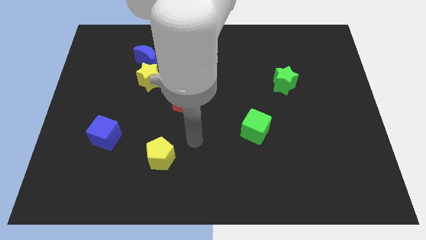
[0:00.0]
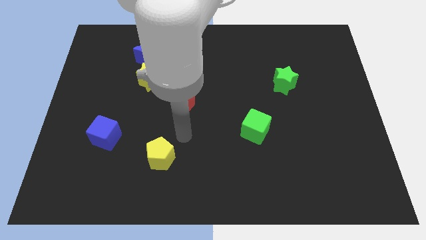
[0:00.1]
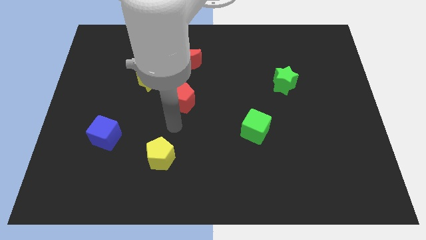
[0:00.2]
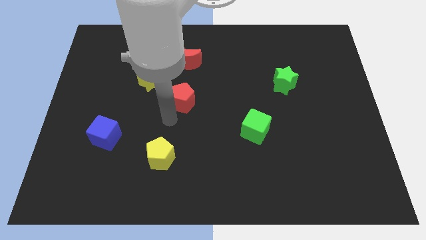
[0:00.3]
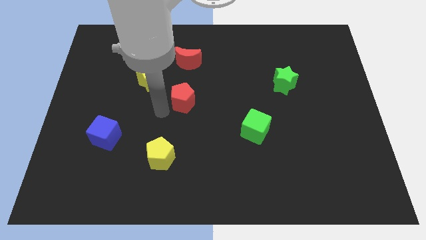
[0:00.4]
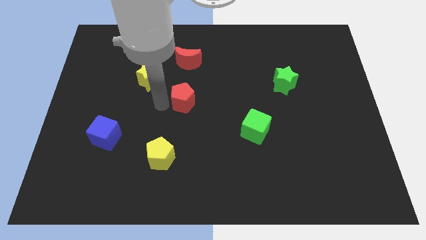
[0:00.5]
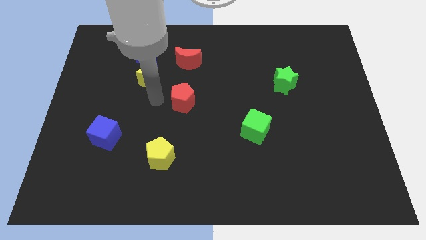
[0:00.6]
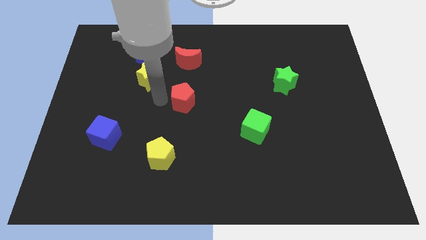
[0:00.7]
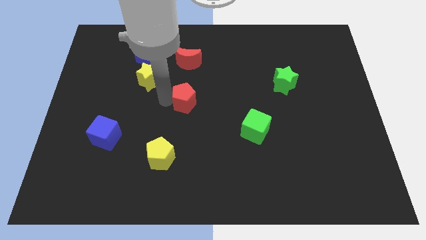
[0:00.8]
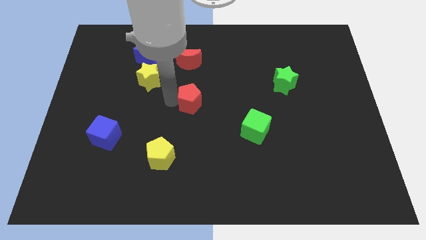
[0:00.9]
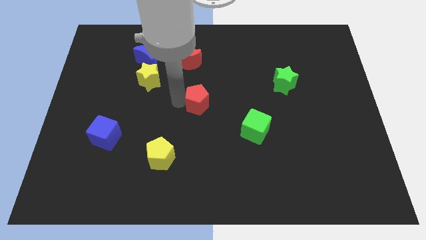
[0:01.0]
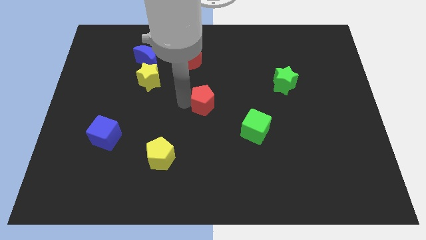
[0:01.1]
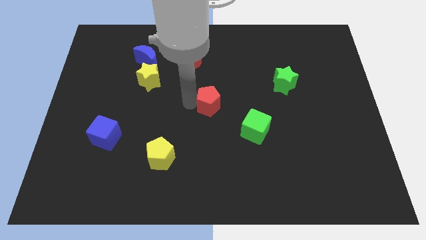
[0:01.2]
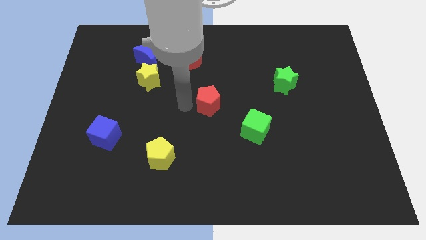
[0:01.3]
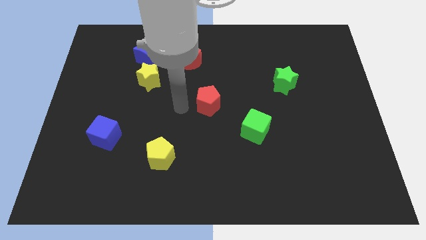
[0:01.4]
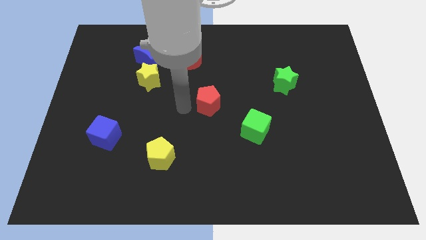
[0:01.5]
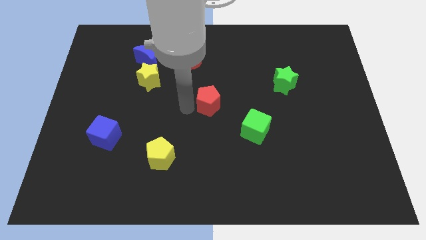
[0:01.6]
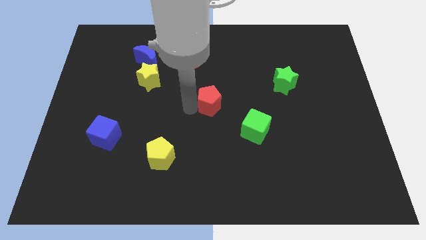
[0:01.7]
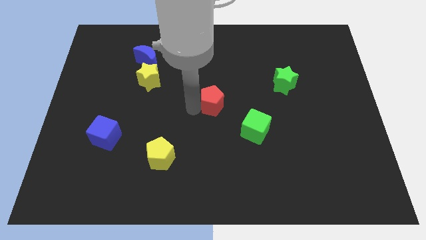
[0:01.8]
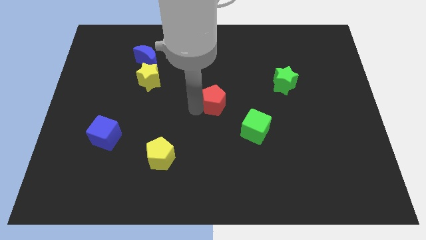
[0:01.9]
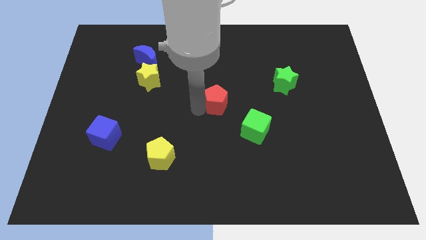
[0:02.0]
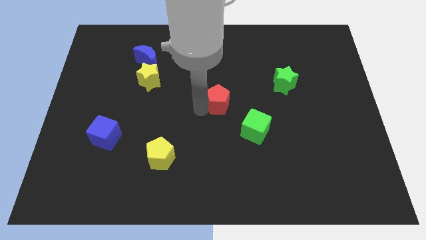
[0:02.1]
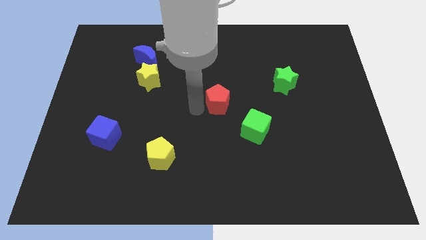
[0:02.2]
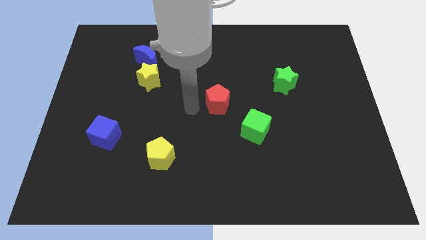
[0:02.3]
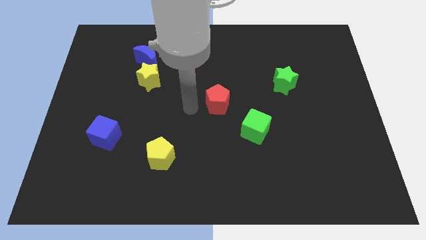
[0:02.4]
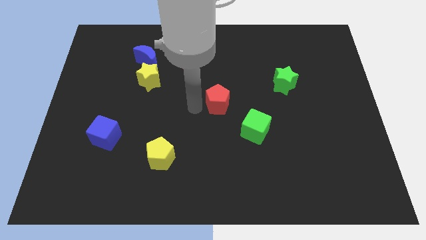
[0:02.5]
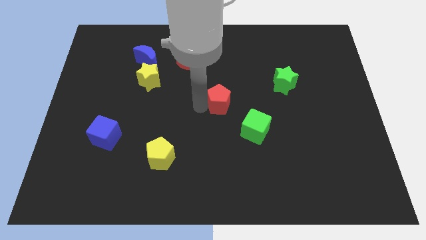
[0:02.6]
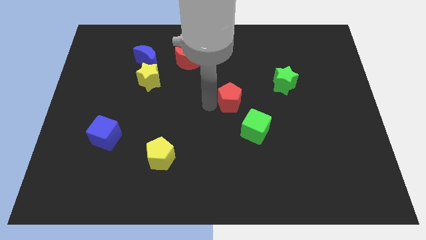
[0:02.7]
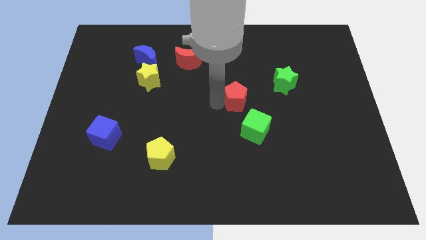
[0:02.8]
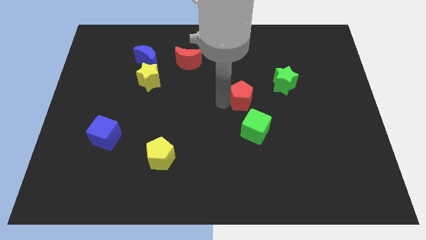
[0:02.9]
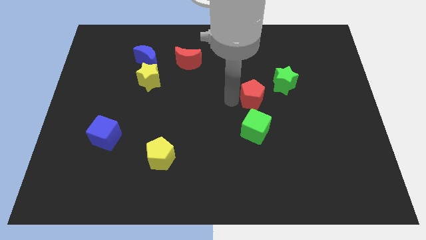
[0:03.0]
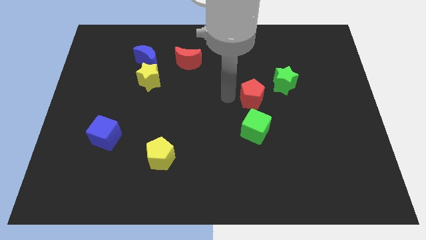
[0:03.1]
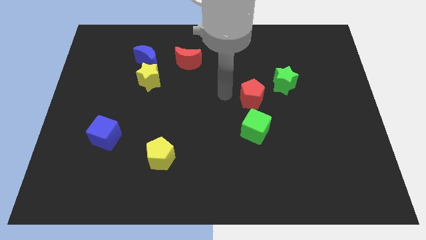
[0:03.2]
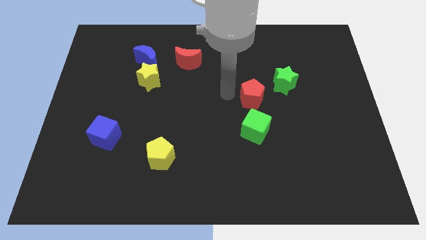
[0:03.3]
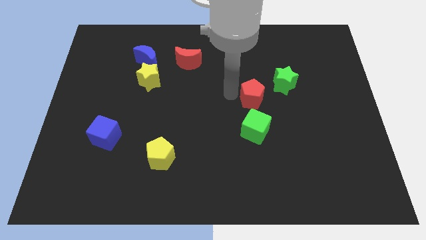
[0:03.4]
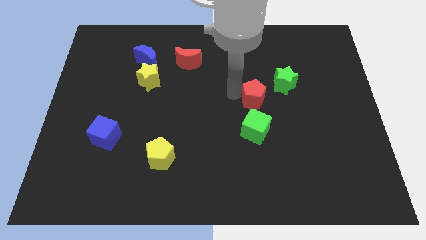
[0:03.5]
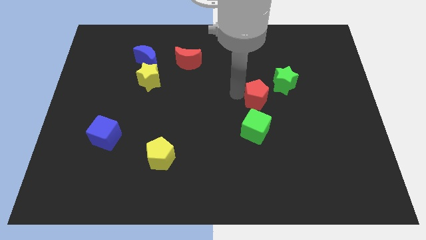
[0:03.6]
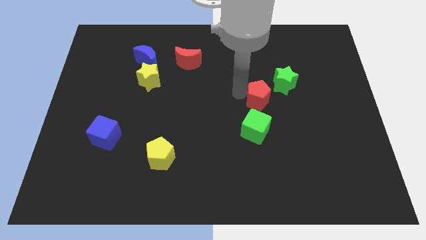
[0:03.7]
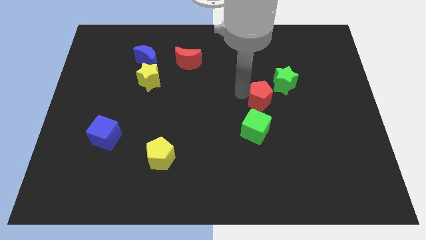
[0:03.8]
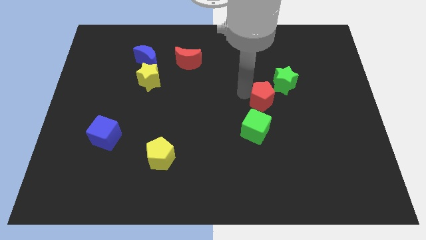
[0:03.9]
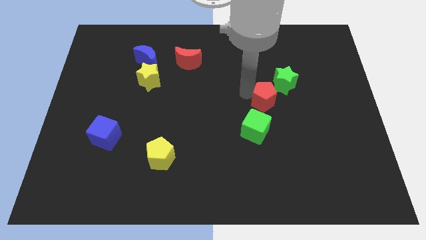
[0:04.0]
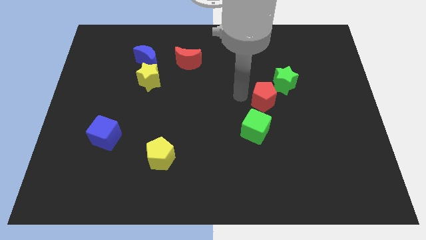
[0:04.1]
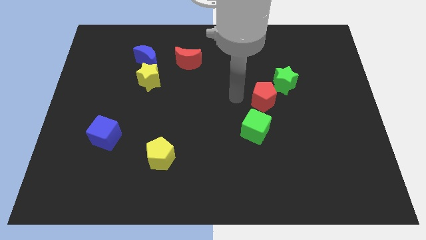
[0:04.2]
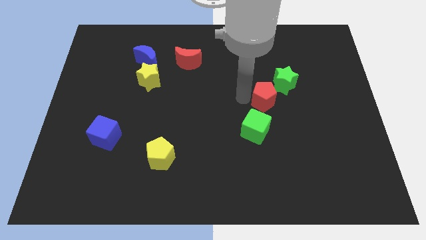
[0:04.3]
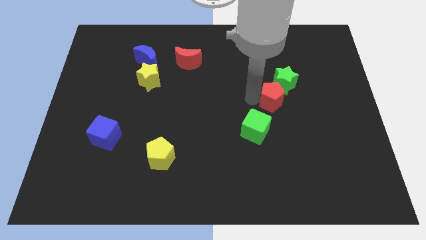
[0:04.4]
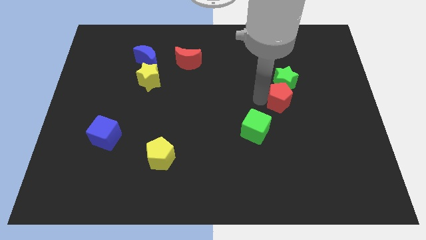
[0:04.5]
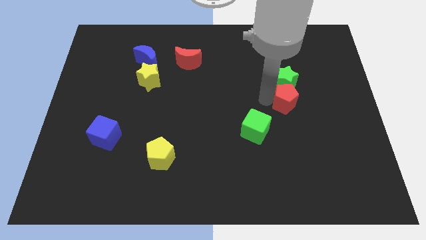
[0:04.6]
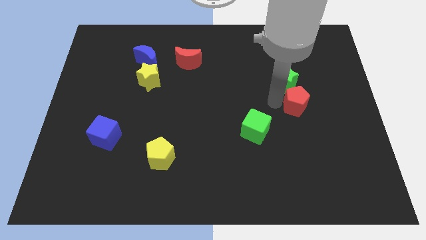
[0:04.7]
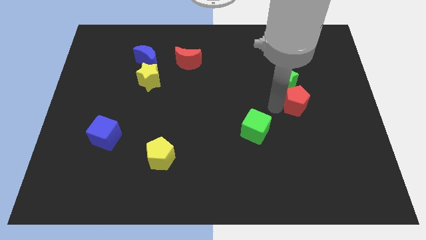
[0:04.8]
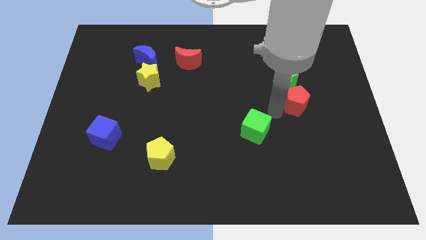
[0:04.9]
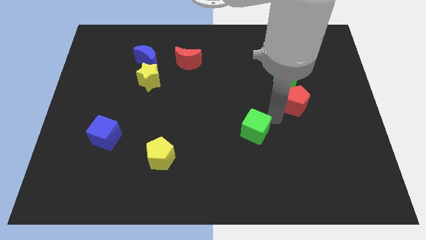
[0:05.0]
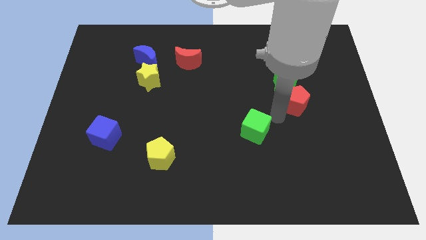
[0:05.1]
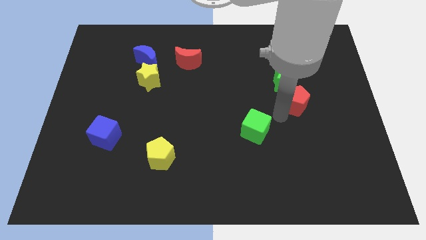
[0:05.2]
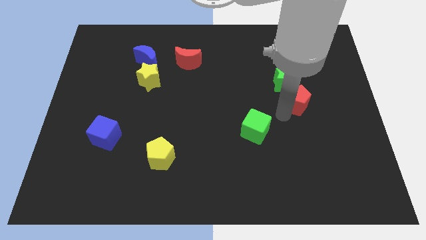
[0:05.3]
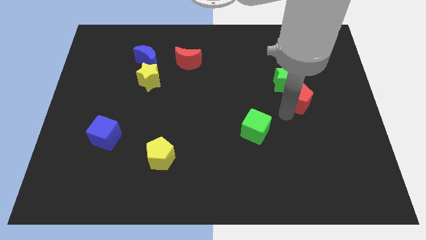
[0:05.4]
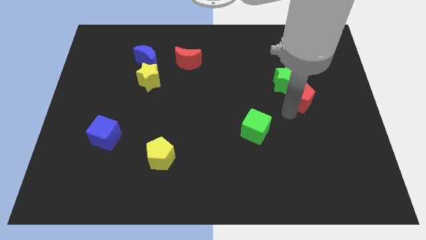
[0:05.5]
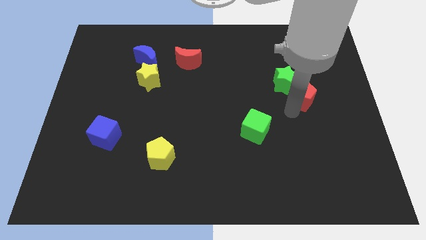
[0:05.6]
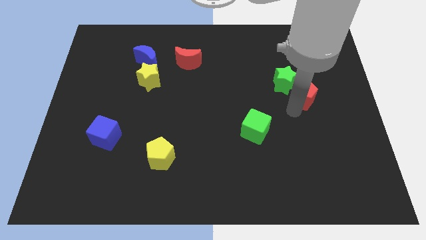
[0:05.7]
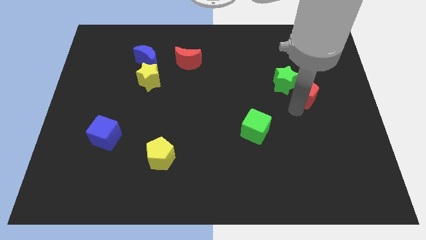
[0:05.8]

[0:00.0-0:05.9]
move the red pentagon to the right side of the green star
